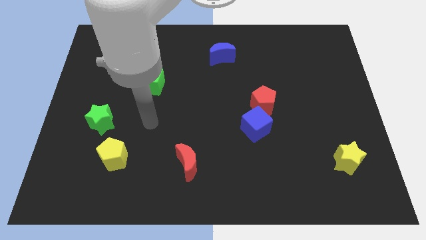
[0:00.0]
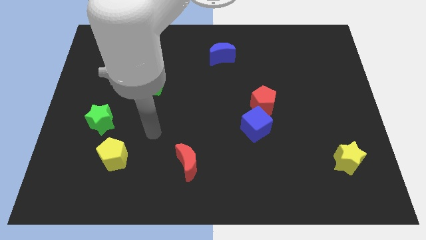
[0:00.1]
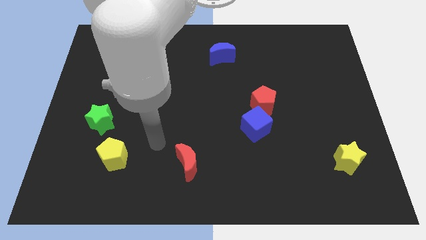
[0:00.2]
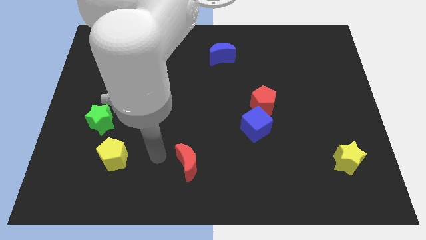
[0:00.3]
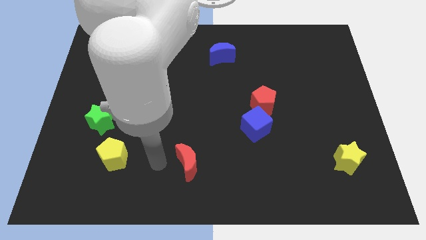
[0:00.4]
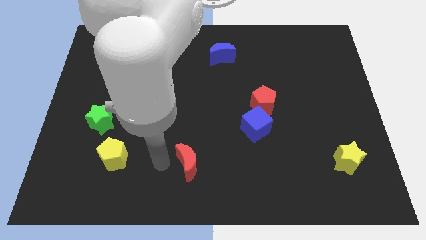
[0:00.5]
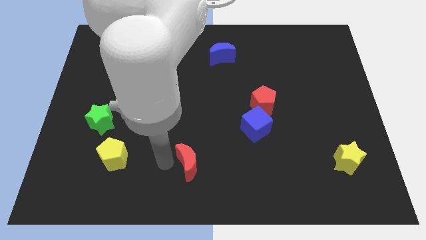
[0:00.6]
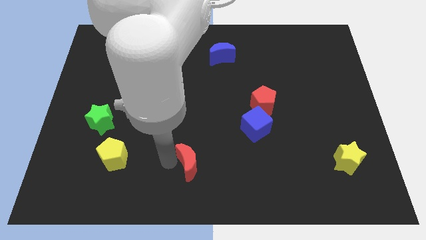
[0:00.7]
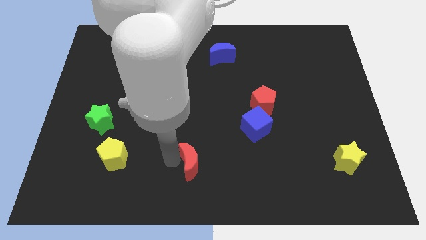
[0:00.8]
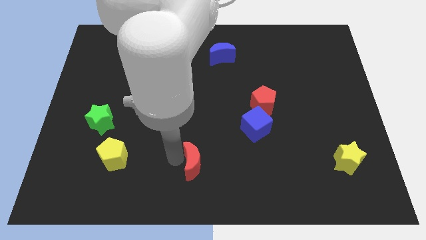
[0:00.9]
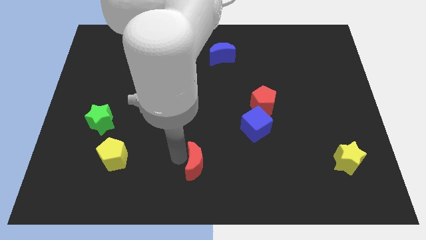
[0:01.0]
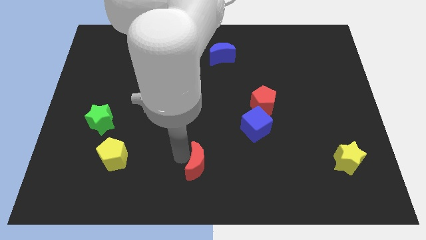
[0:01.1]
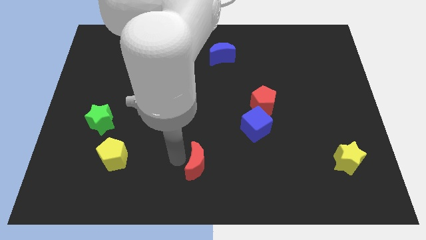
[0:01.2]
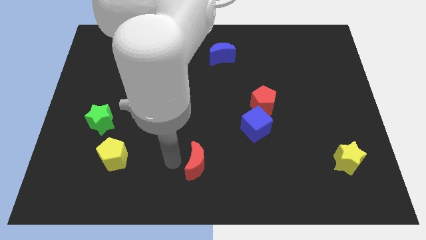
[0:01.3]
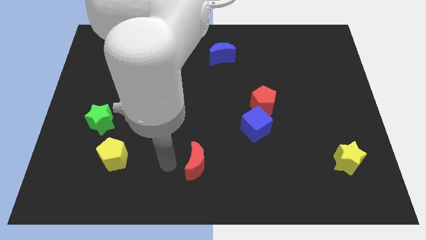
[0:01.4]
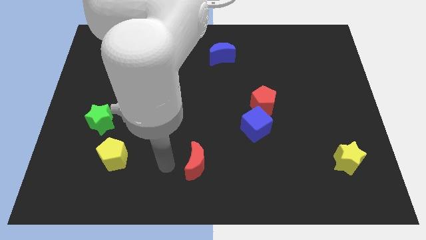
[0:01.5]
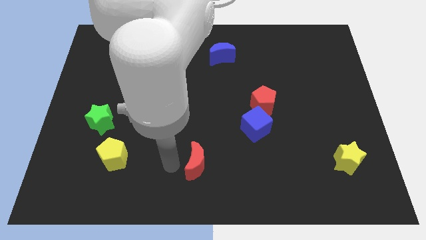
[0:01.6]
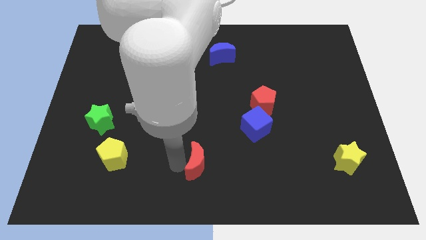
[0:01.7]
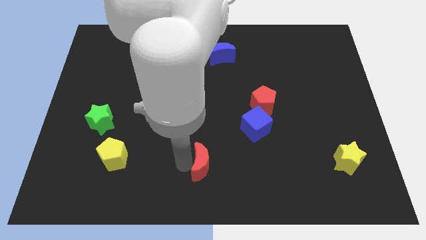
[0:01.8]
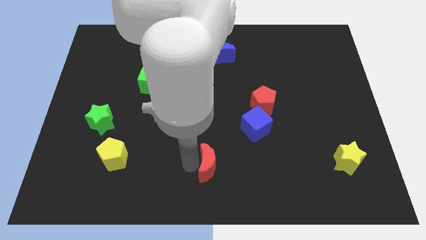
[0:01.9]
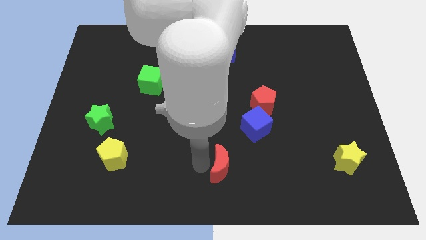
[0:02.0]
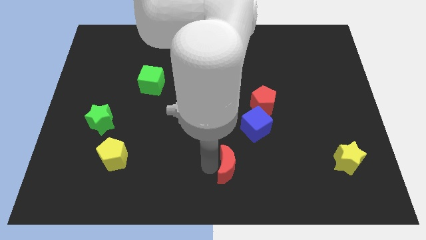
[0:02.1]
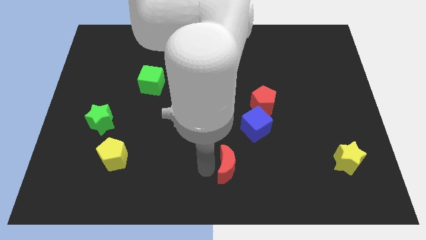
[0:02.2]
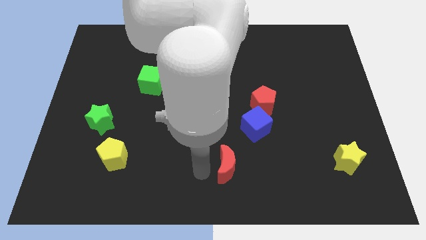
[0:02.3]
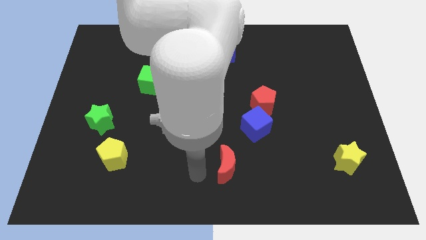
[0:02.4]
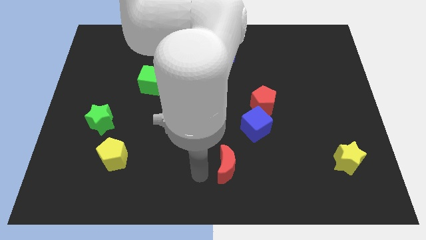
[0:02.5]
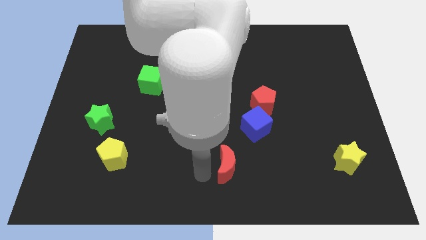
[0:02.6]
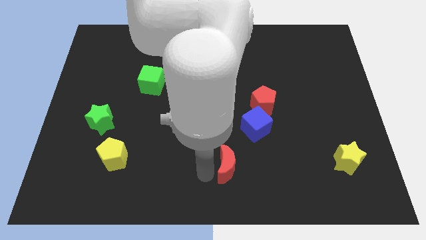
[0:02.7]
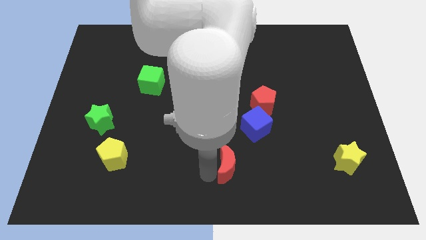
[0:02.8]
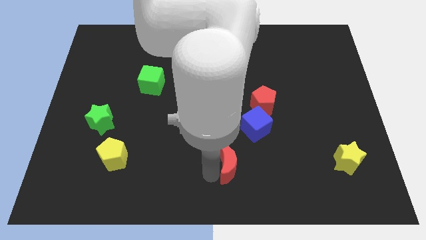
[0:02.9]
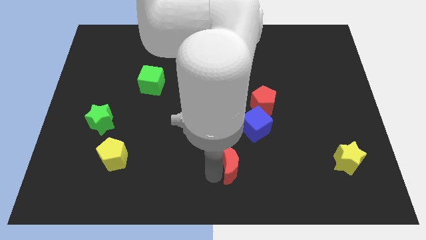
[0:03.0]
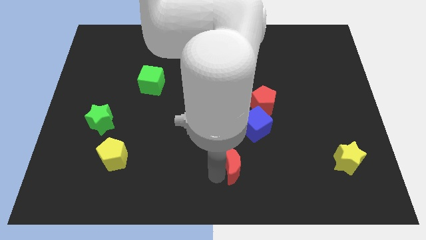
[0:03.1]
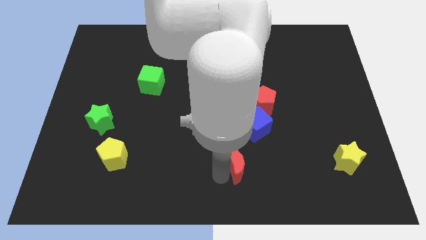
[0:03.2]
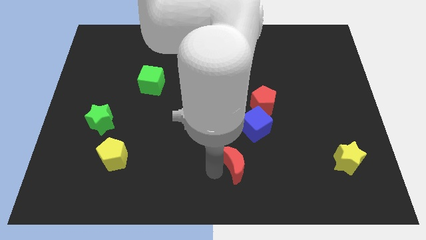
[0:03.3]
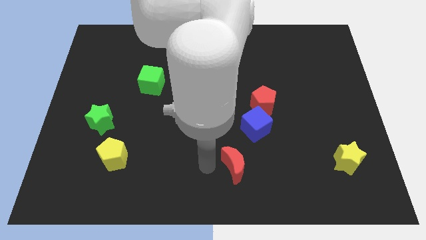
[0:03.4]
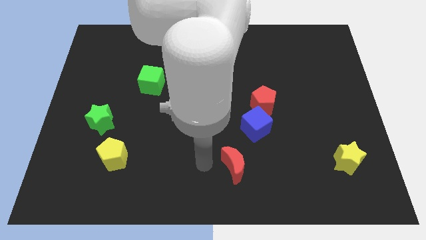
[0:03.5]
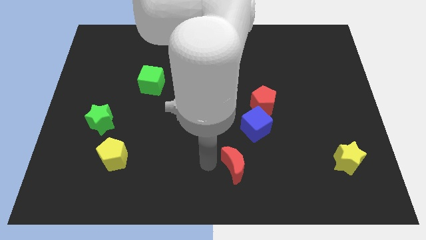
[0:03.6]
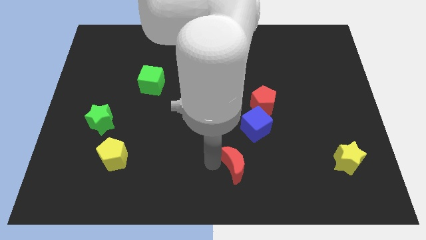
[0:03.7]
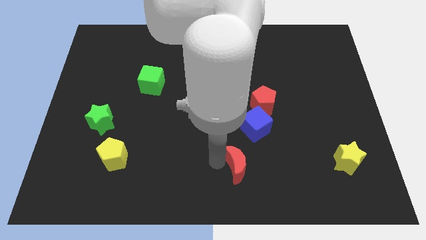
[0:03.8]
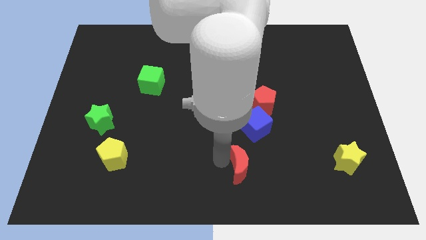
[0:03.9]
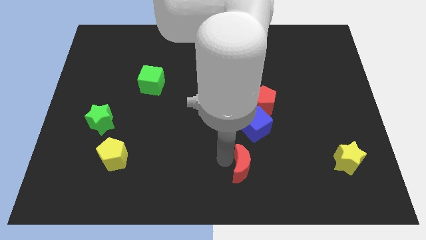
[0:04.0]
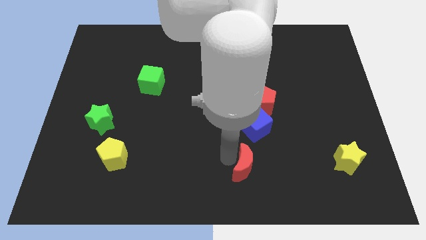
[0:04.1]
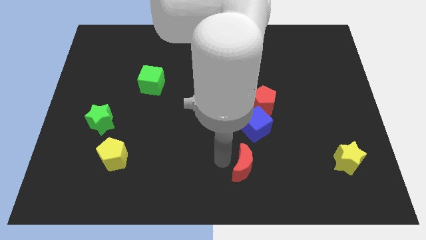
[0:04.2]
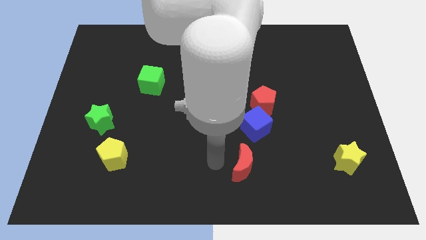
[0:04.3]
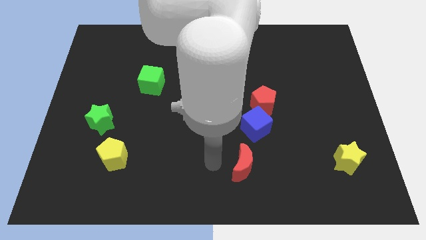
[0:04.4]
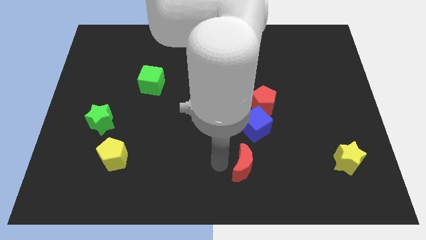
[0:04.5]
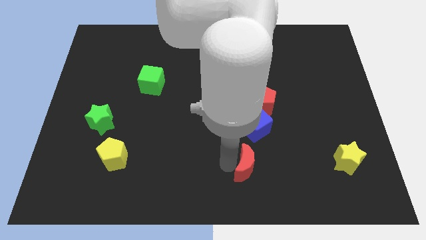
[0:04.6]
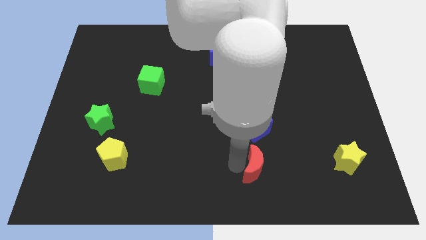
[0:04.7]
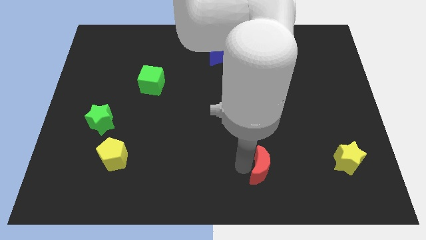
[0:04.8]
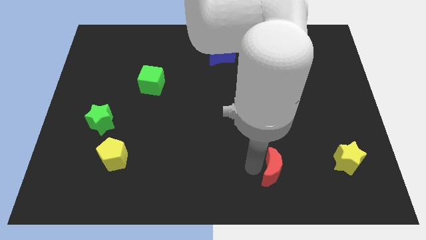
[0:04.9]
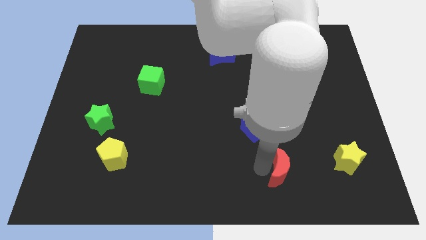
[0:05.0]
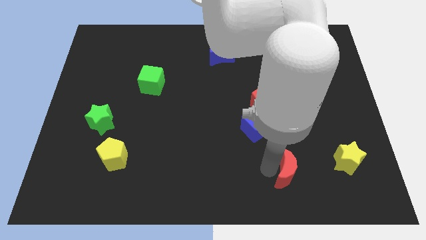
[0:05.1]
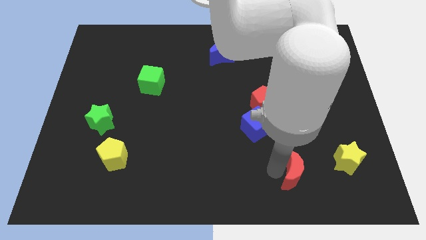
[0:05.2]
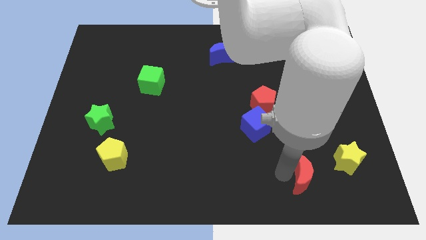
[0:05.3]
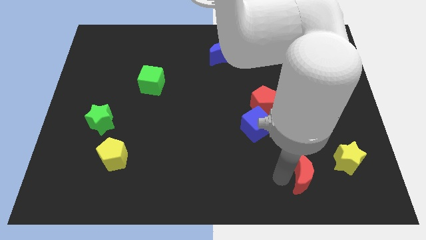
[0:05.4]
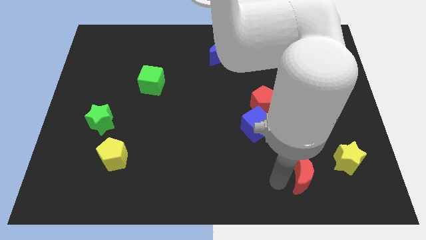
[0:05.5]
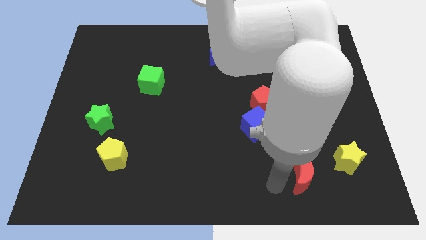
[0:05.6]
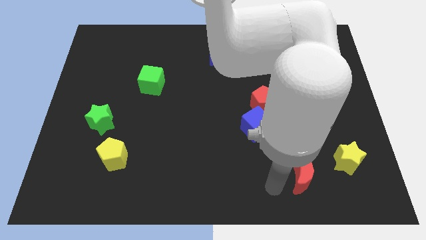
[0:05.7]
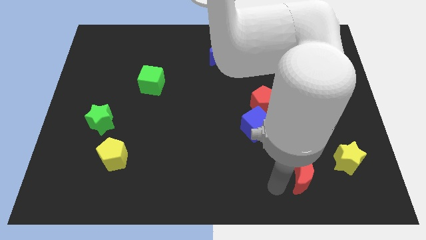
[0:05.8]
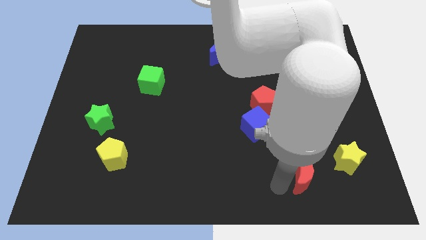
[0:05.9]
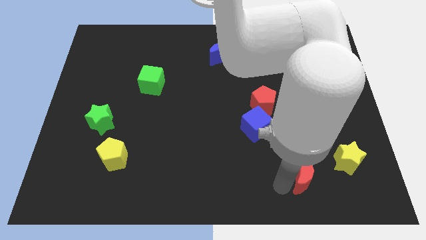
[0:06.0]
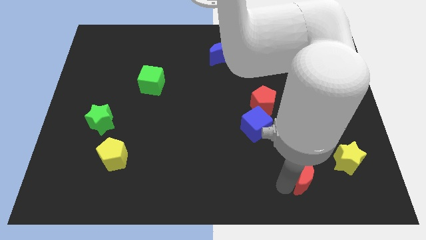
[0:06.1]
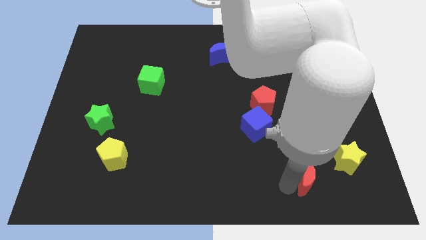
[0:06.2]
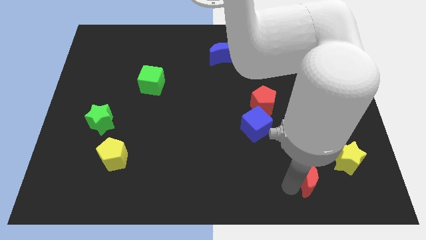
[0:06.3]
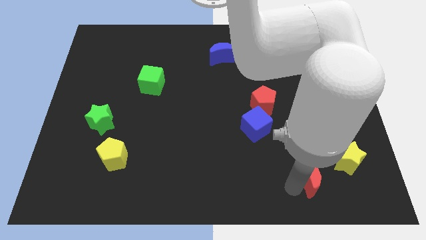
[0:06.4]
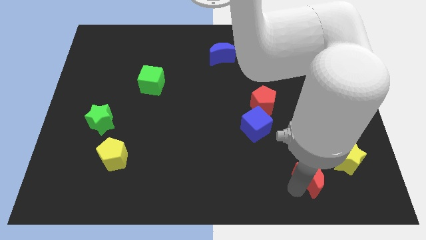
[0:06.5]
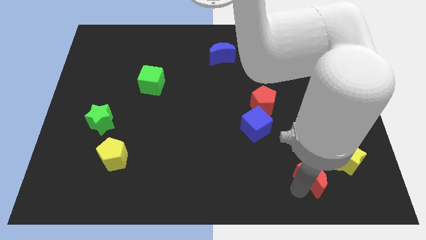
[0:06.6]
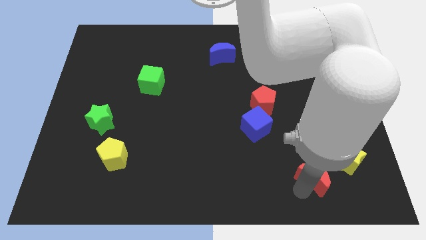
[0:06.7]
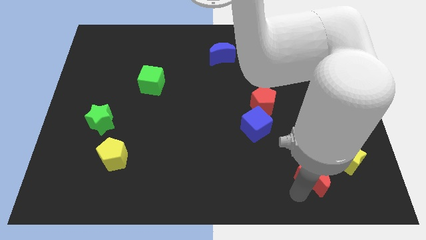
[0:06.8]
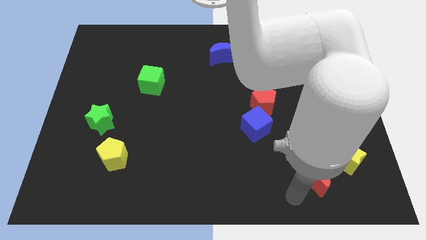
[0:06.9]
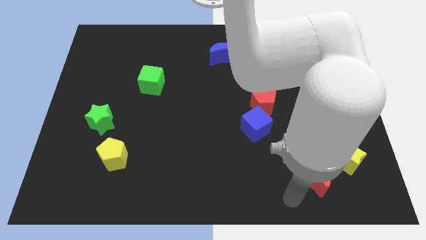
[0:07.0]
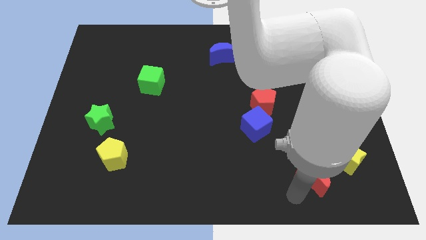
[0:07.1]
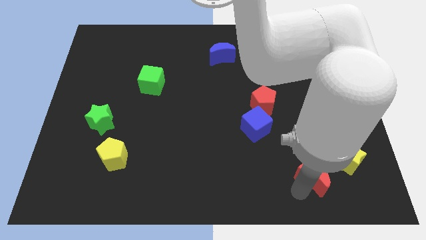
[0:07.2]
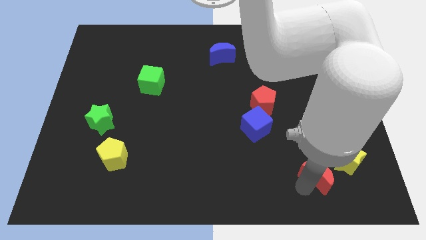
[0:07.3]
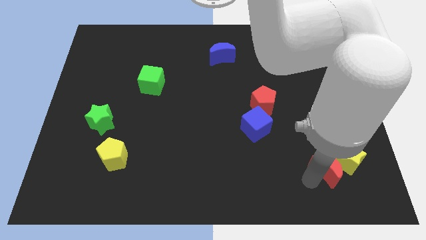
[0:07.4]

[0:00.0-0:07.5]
move the red moon towards the yellow star
